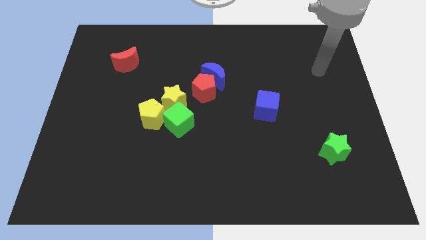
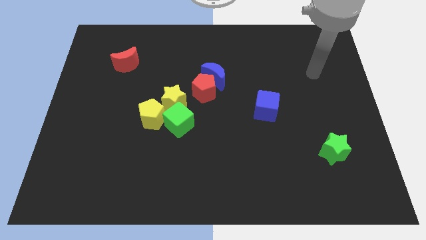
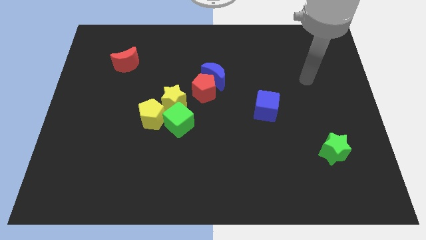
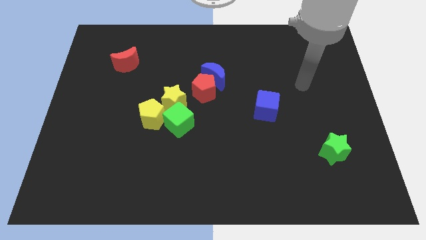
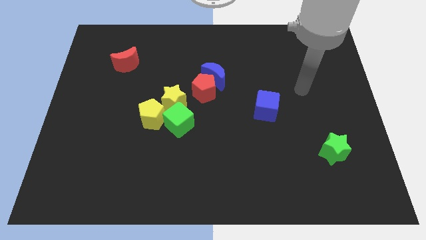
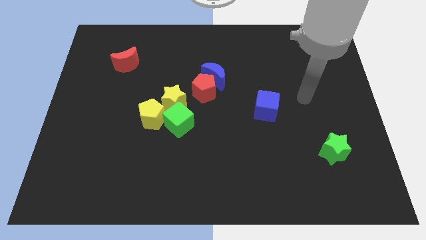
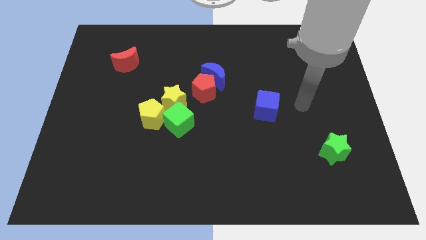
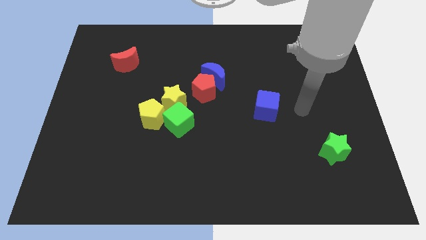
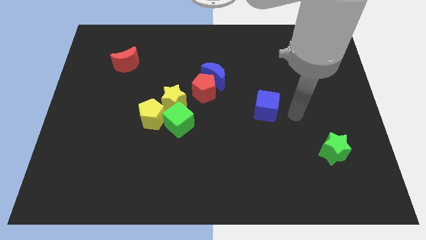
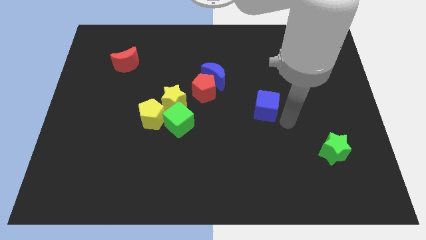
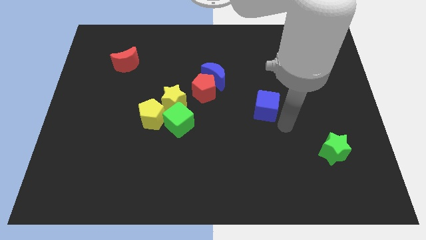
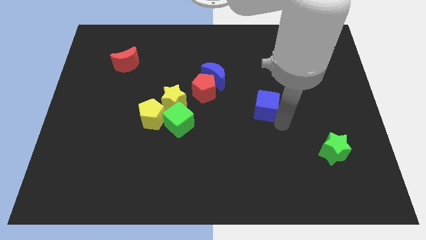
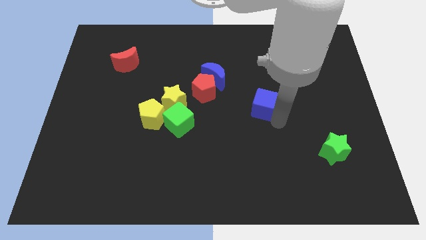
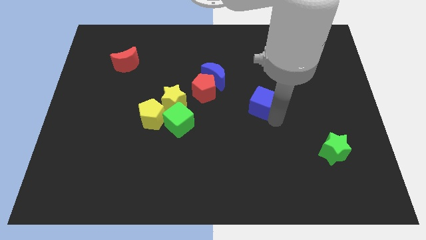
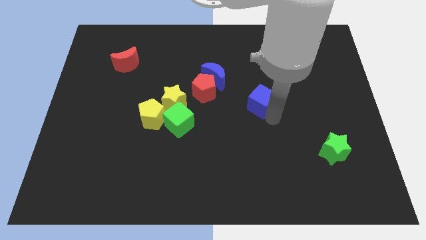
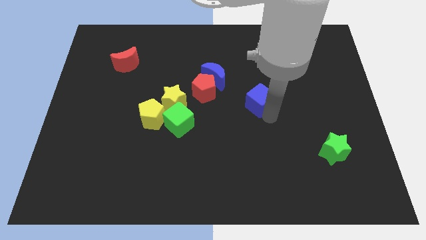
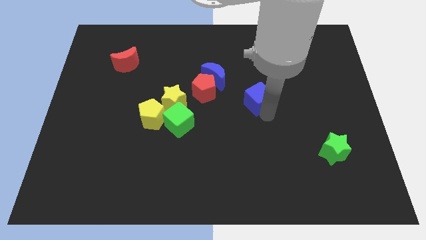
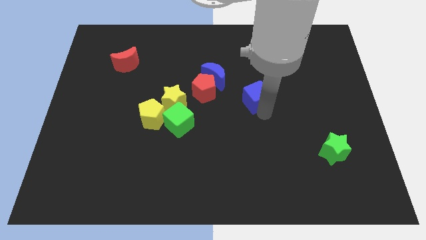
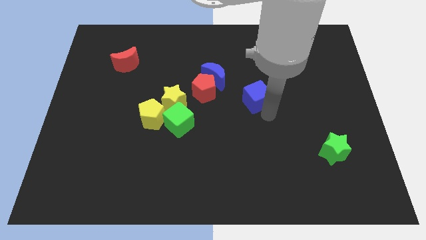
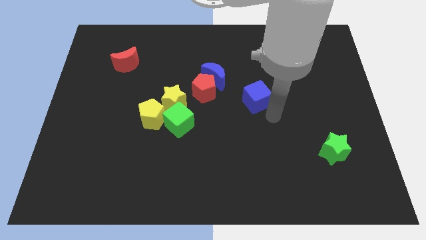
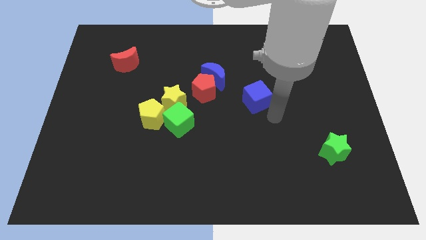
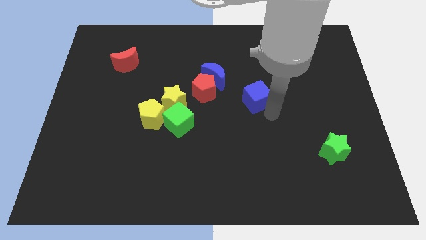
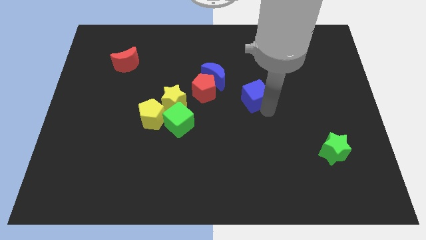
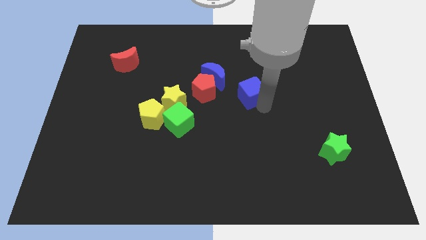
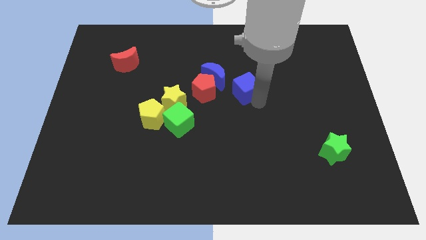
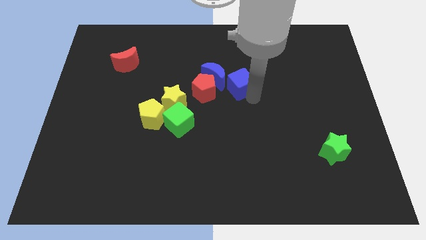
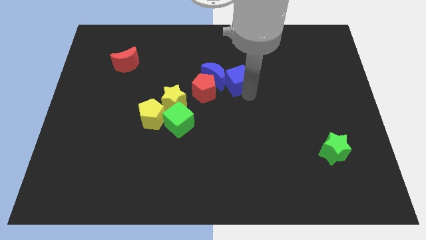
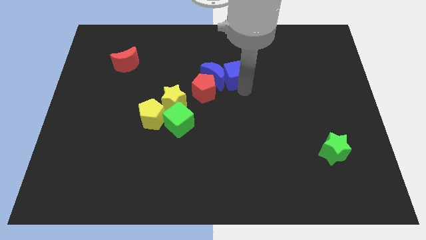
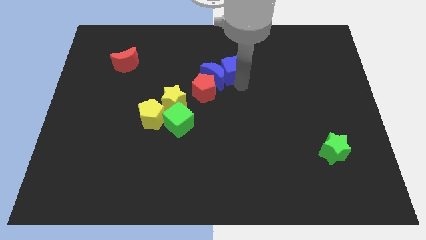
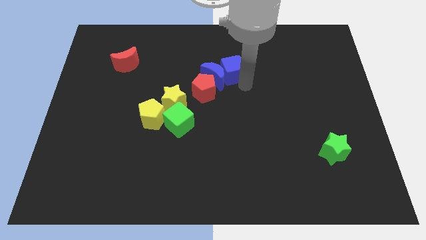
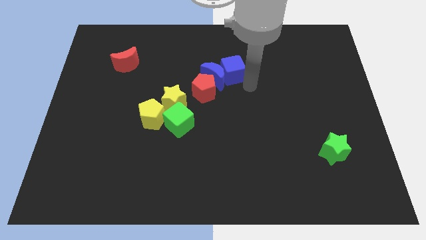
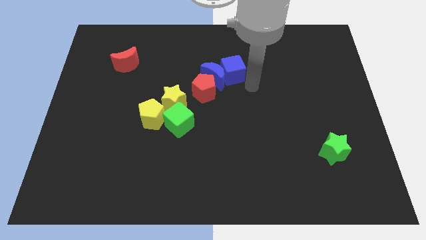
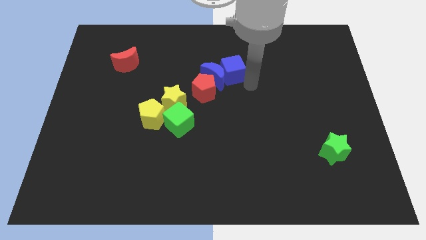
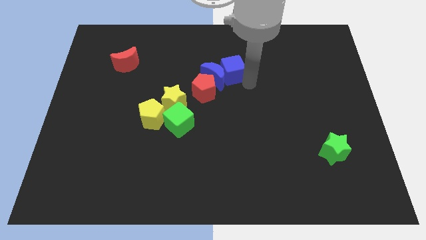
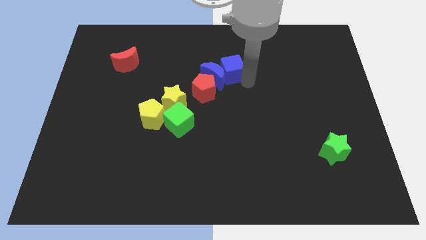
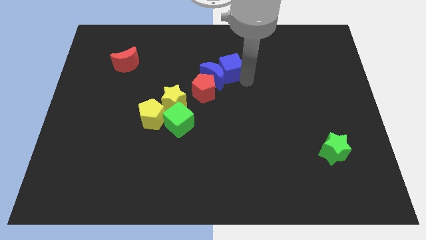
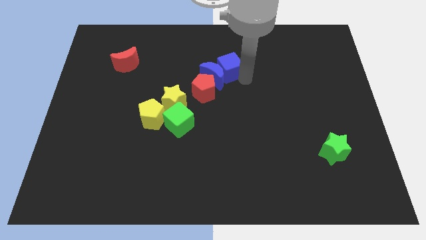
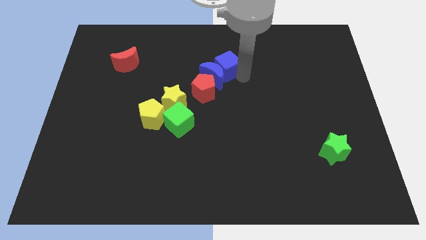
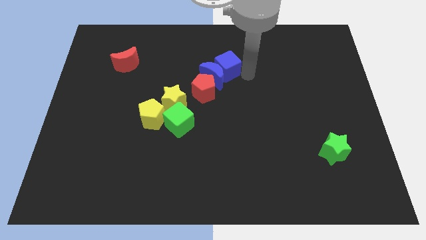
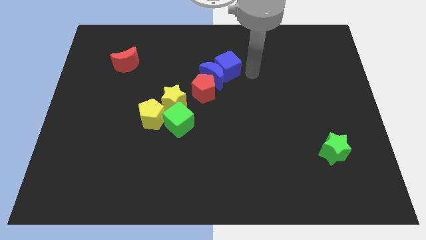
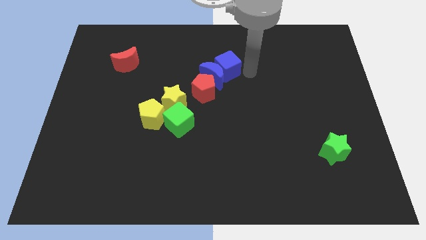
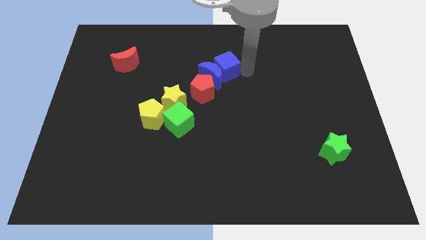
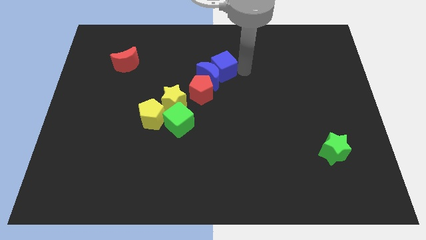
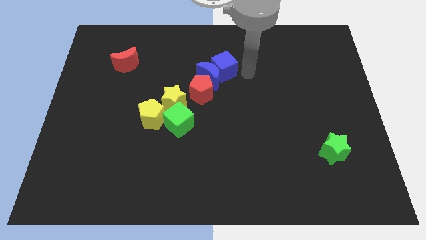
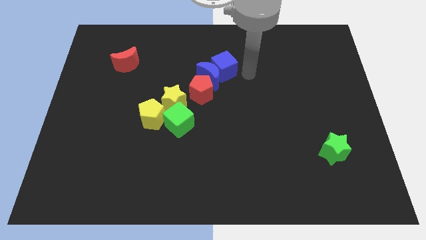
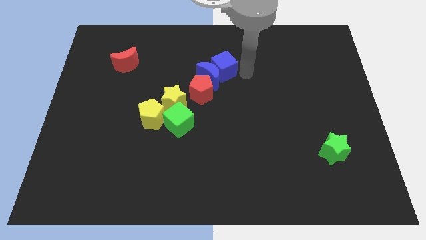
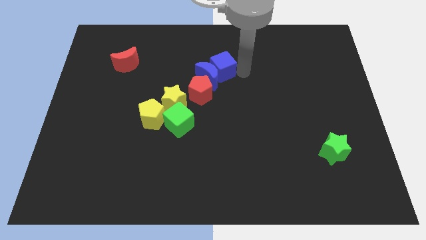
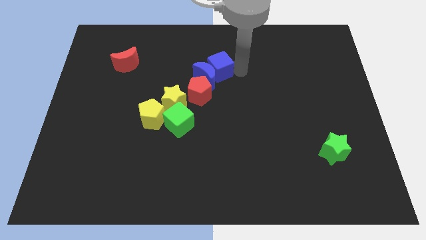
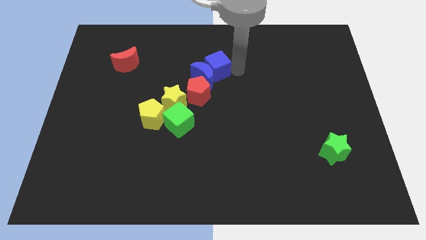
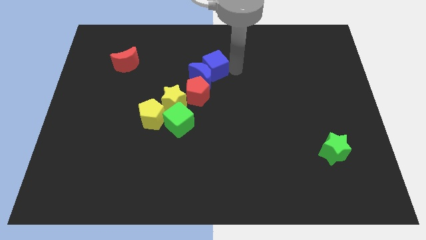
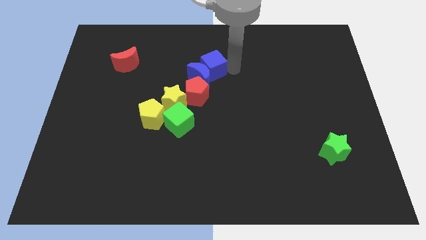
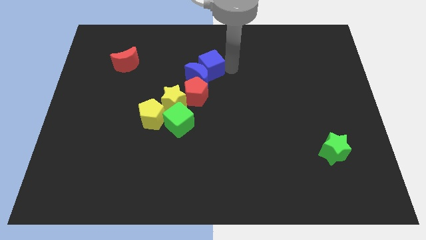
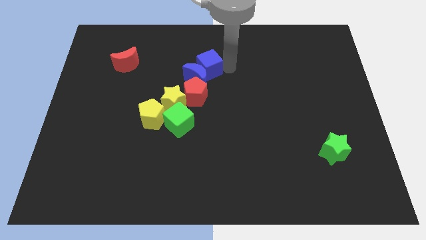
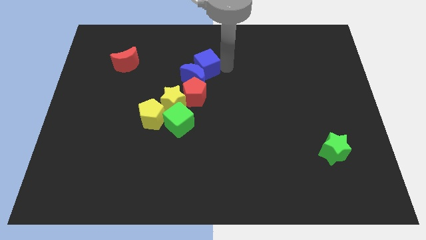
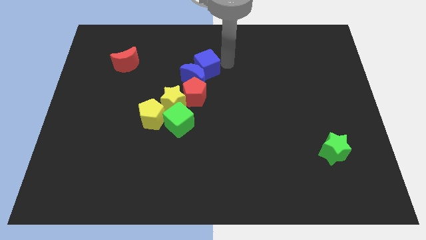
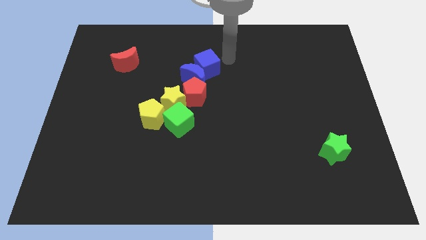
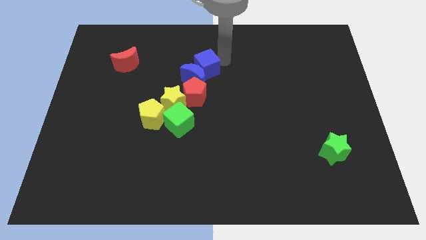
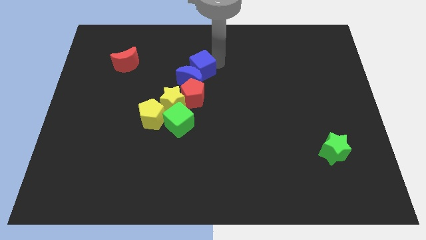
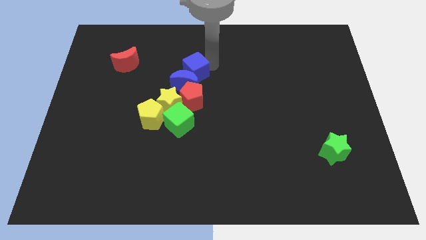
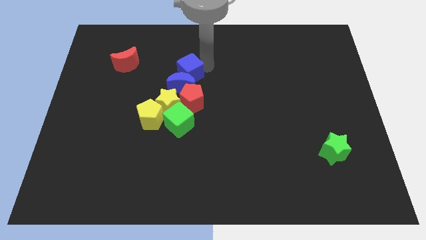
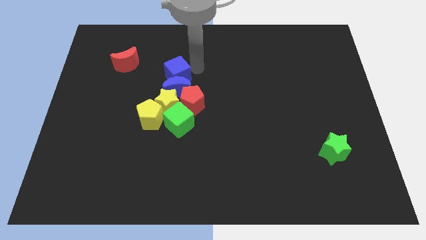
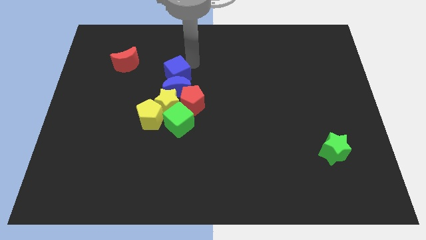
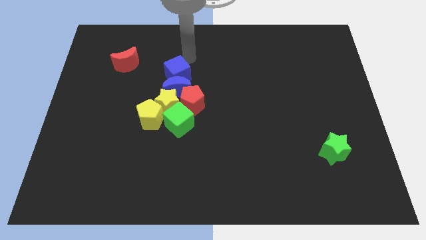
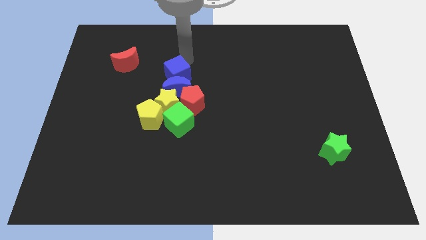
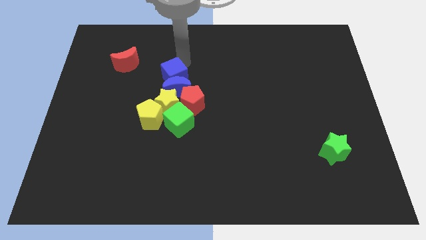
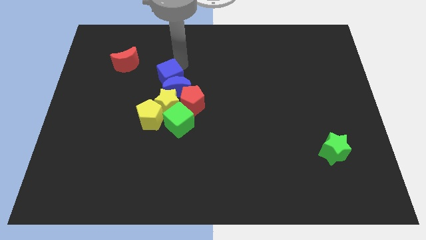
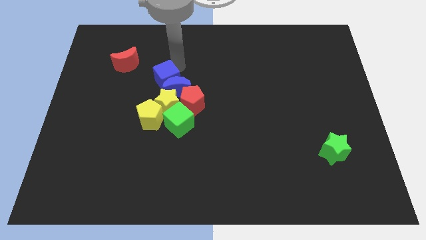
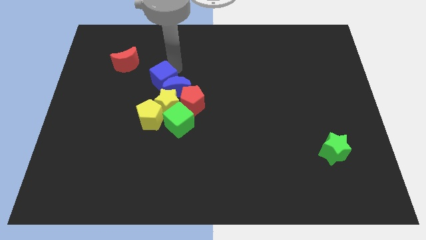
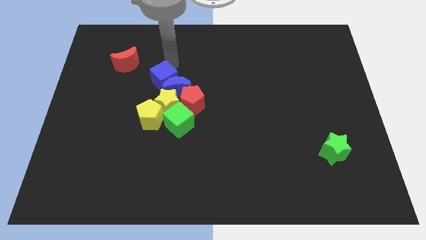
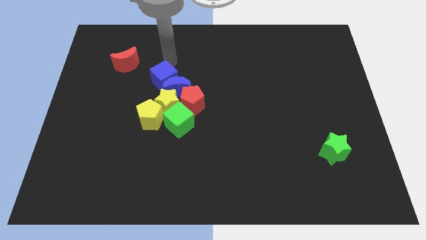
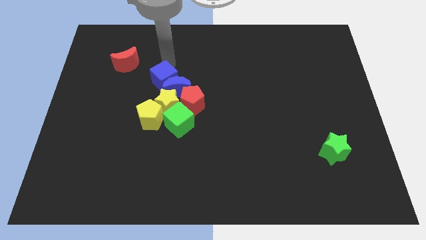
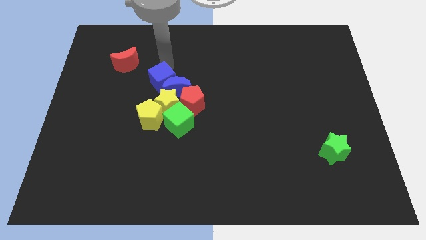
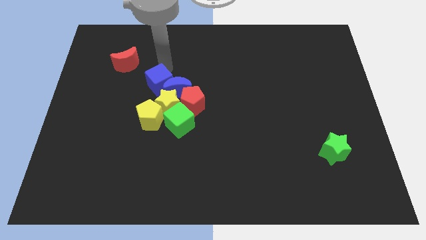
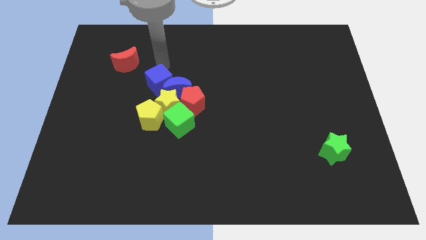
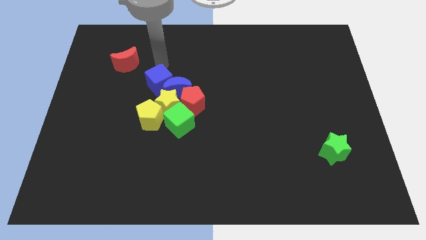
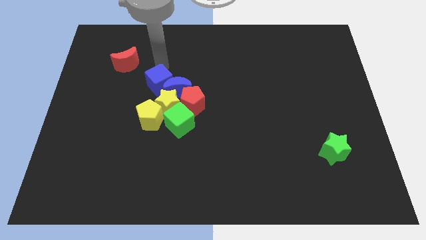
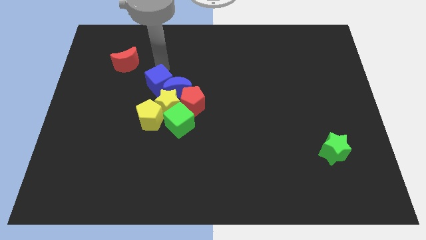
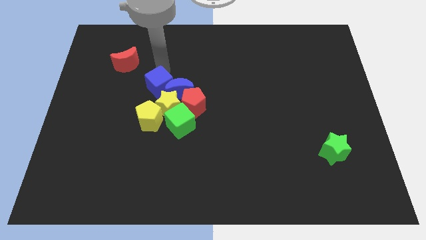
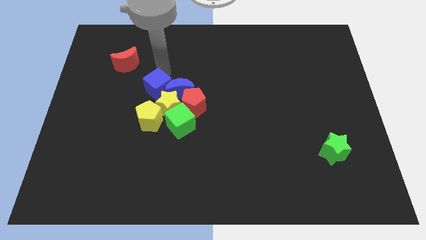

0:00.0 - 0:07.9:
move the blue cube diagonally up and to the left of the green cube
